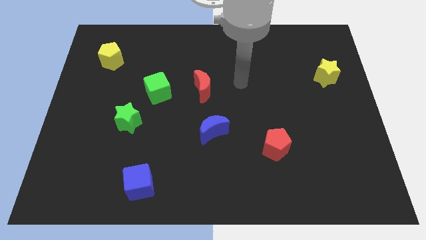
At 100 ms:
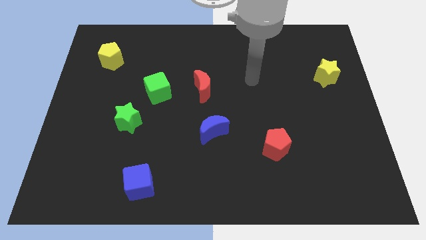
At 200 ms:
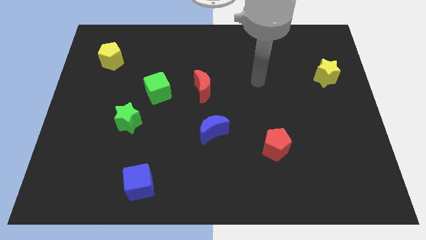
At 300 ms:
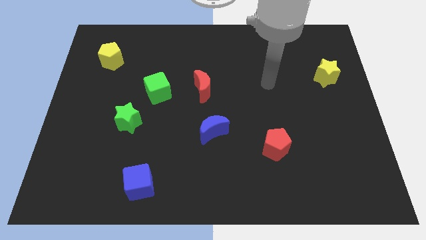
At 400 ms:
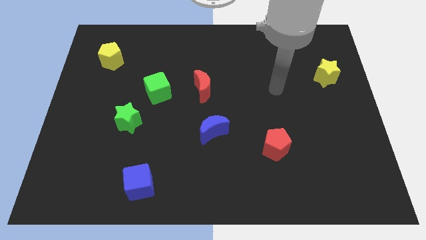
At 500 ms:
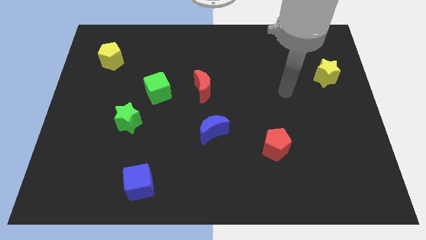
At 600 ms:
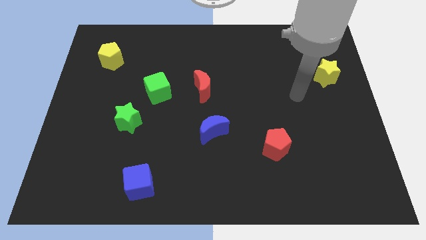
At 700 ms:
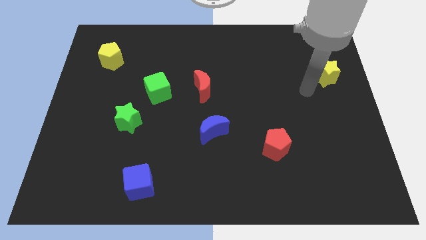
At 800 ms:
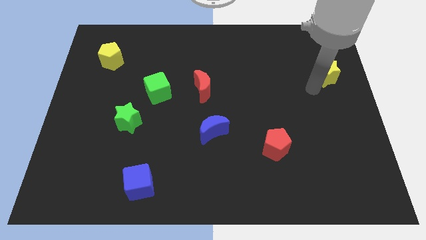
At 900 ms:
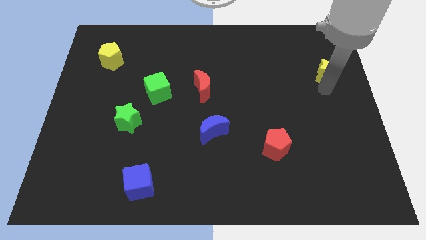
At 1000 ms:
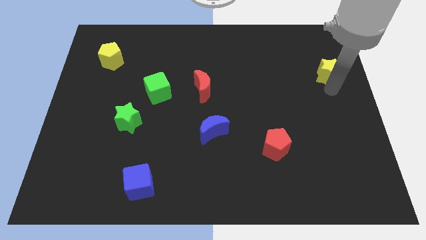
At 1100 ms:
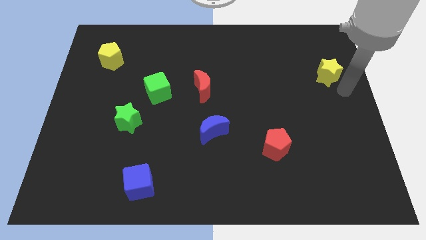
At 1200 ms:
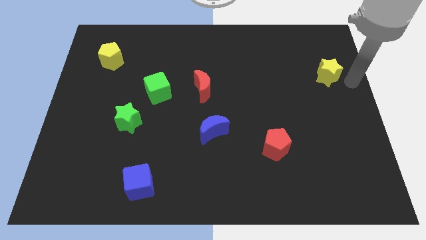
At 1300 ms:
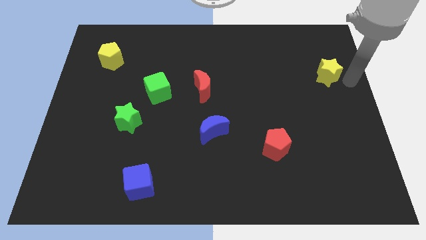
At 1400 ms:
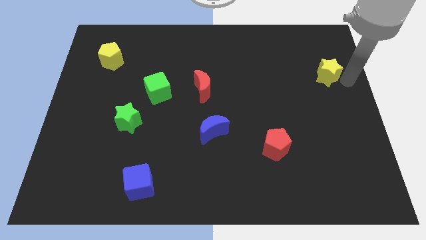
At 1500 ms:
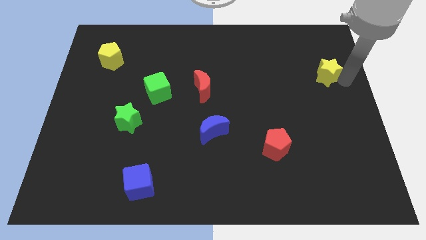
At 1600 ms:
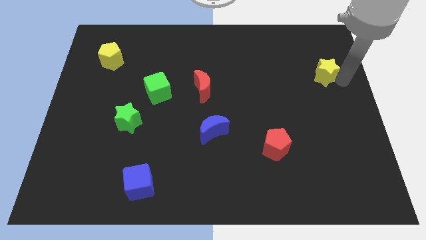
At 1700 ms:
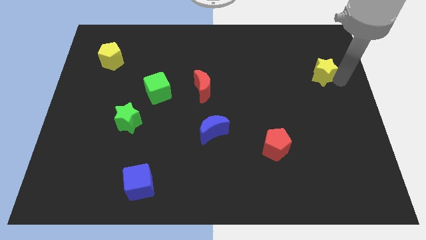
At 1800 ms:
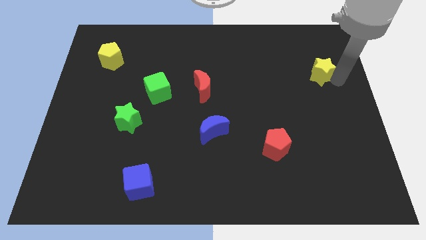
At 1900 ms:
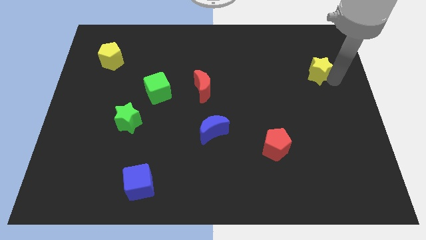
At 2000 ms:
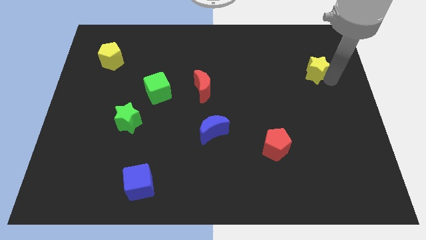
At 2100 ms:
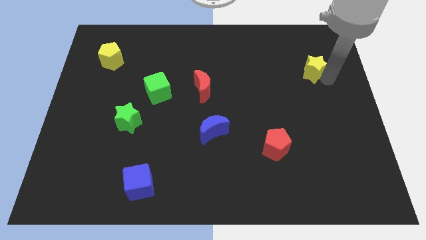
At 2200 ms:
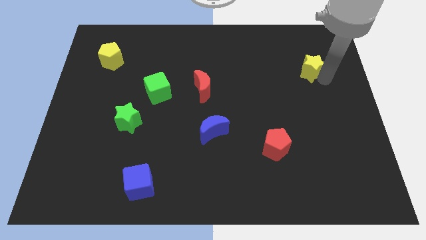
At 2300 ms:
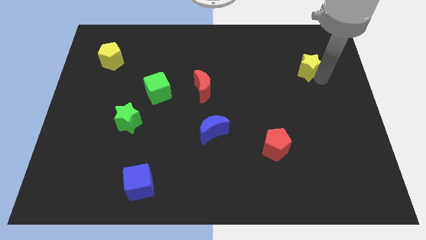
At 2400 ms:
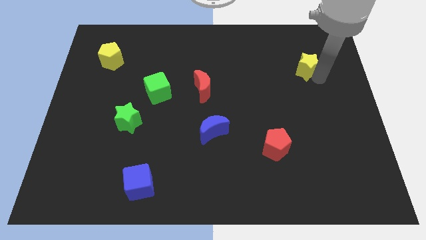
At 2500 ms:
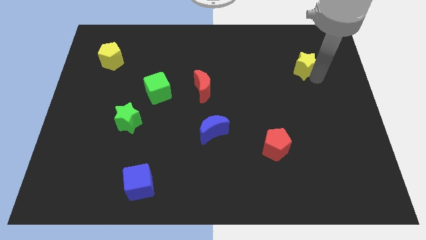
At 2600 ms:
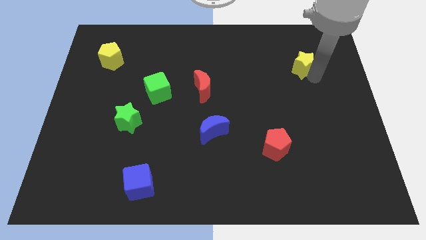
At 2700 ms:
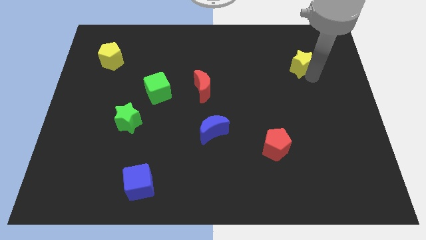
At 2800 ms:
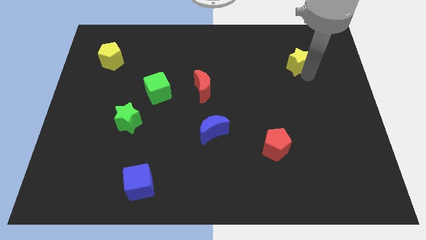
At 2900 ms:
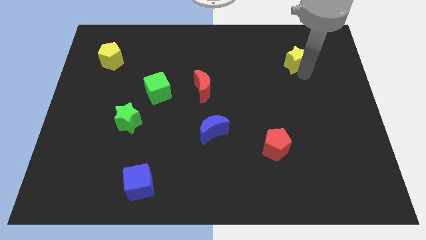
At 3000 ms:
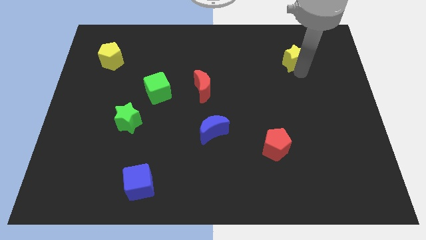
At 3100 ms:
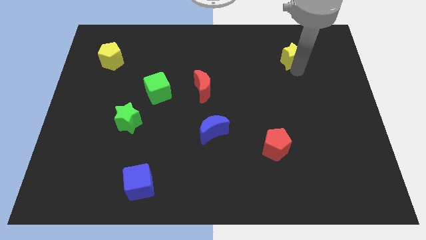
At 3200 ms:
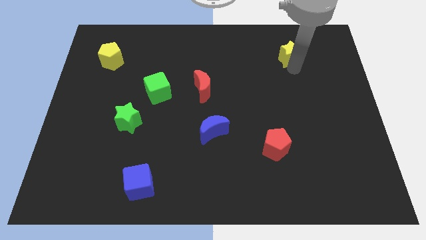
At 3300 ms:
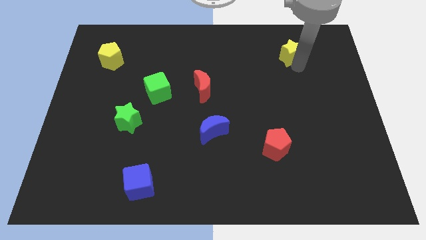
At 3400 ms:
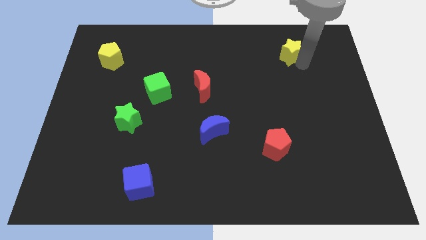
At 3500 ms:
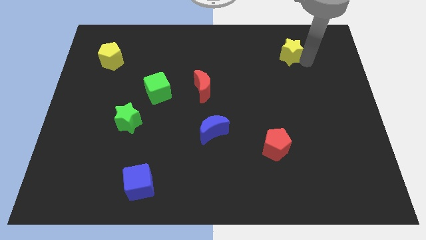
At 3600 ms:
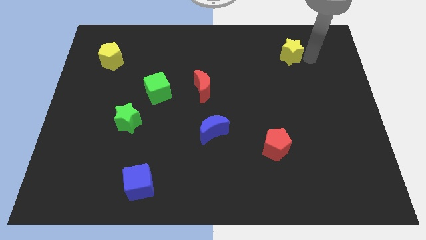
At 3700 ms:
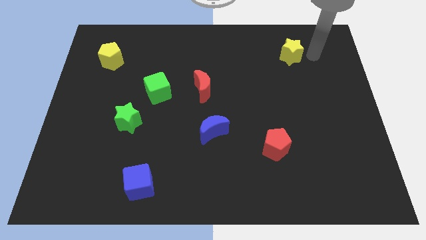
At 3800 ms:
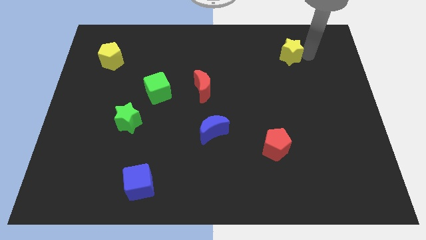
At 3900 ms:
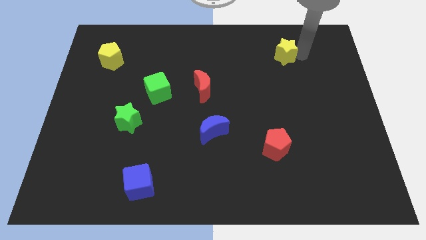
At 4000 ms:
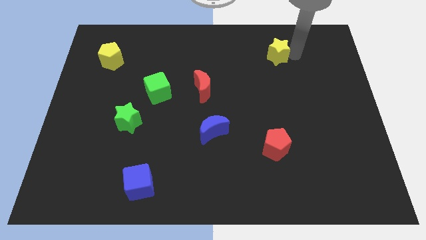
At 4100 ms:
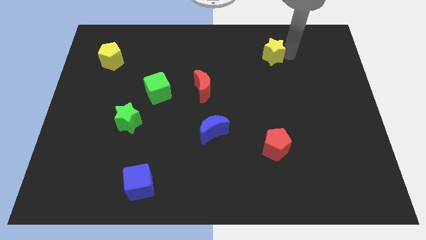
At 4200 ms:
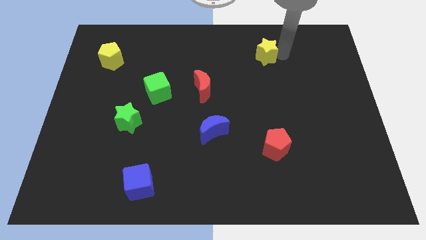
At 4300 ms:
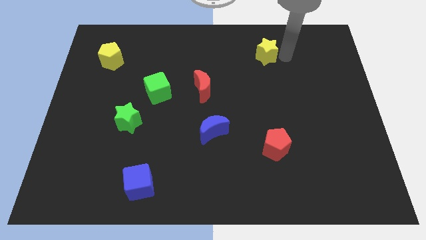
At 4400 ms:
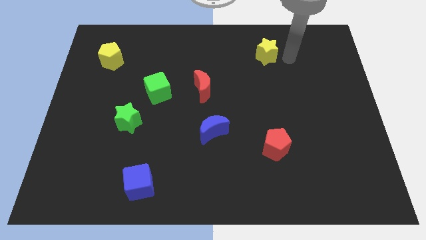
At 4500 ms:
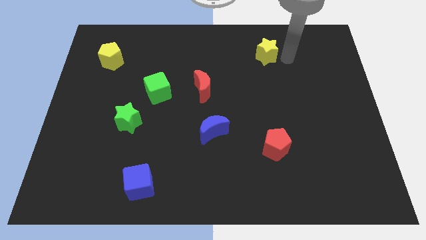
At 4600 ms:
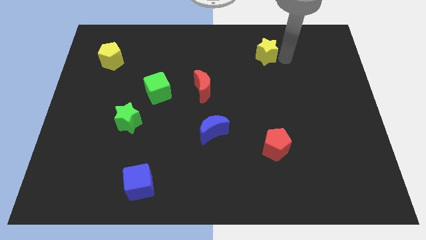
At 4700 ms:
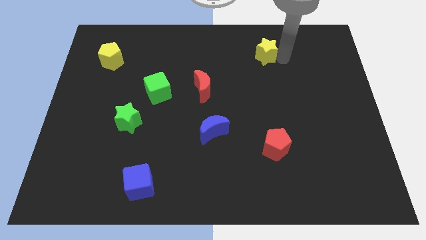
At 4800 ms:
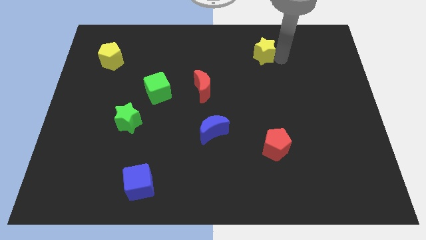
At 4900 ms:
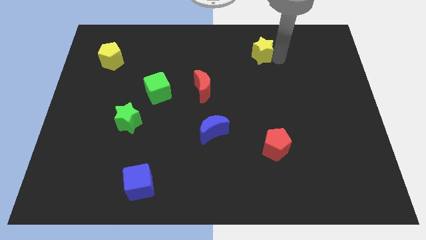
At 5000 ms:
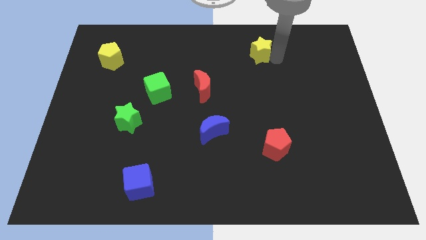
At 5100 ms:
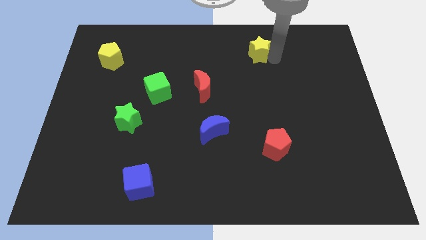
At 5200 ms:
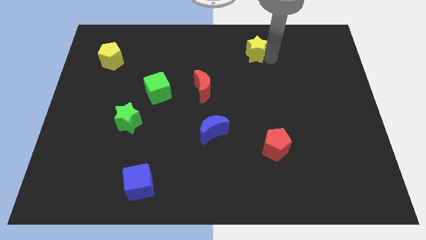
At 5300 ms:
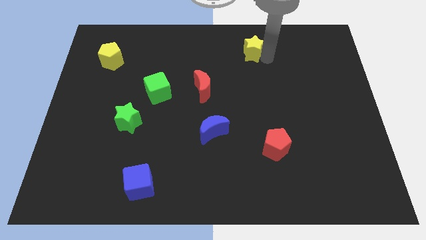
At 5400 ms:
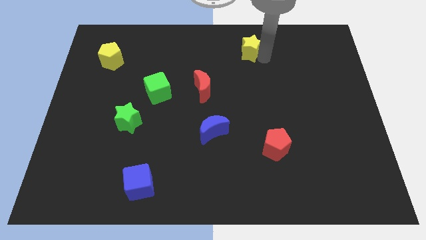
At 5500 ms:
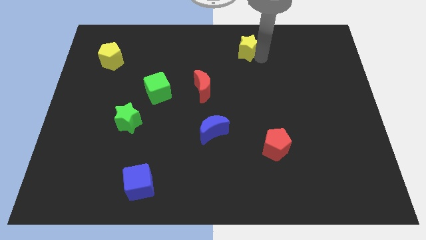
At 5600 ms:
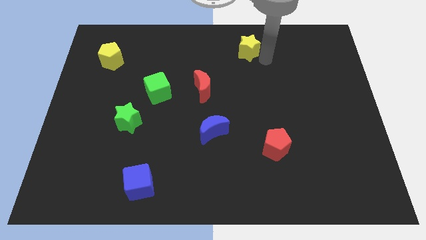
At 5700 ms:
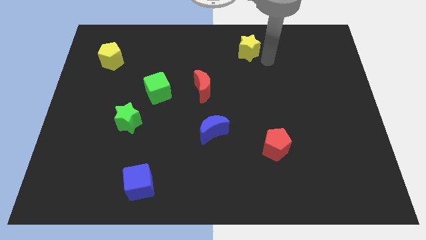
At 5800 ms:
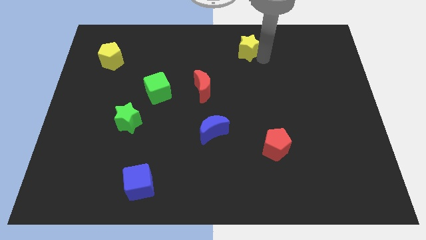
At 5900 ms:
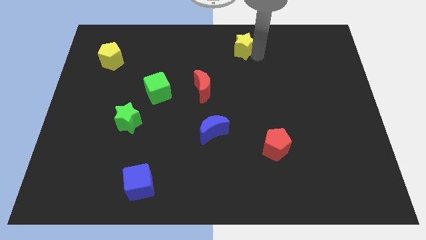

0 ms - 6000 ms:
push the yellow star to the top side
